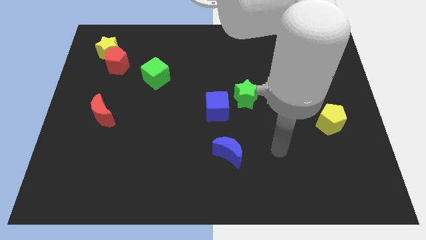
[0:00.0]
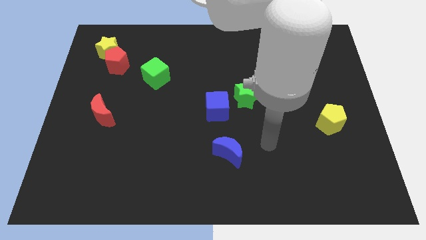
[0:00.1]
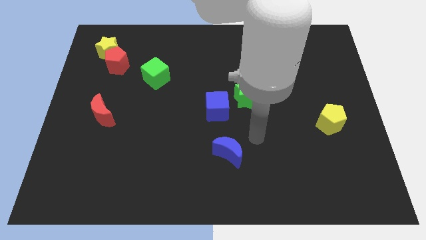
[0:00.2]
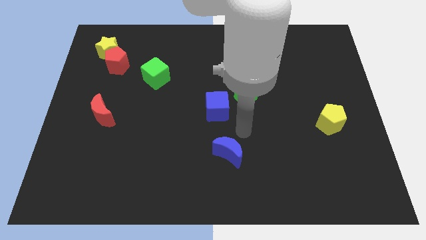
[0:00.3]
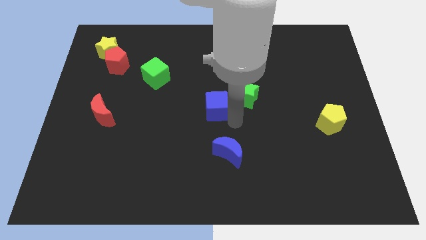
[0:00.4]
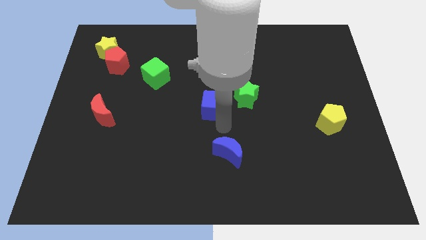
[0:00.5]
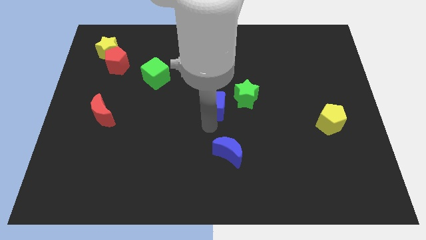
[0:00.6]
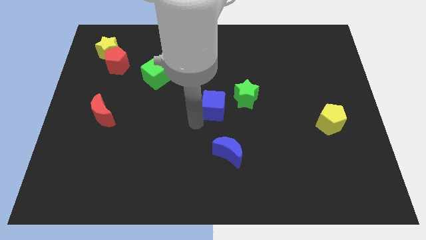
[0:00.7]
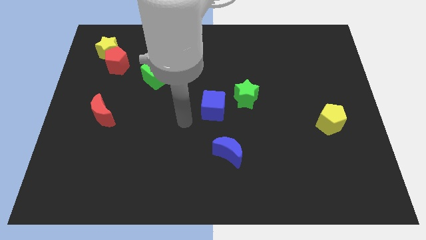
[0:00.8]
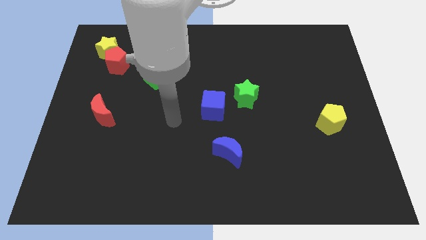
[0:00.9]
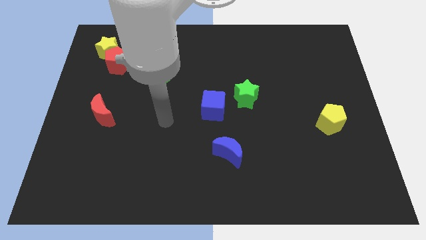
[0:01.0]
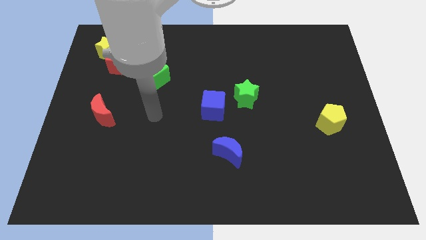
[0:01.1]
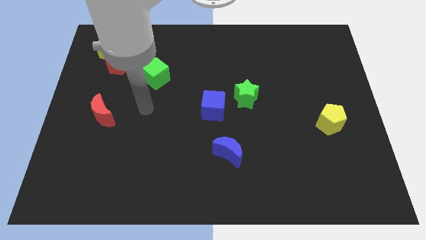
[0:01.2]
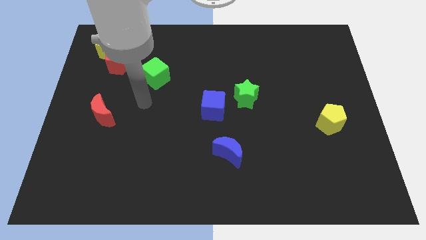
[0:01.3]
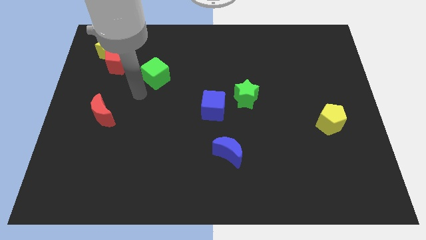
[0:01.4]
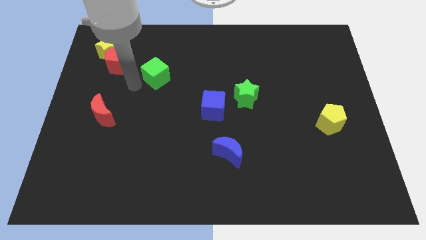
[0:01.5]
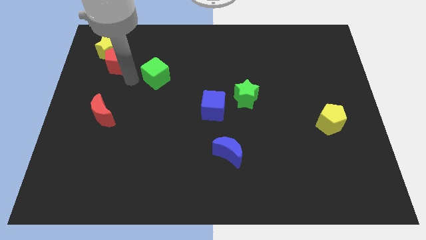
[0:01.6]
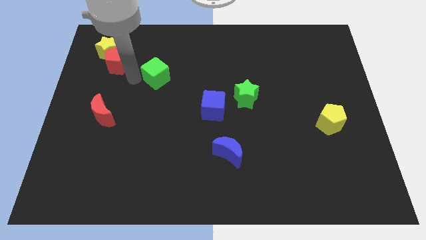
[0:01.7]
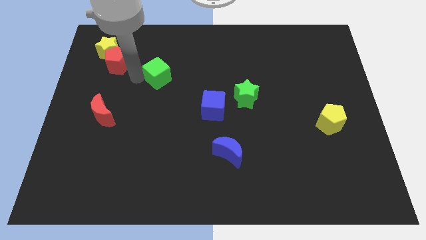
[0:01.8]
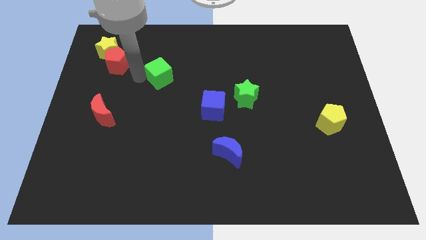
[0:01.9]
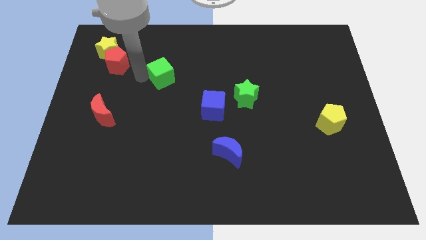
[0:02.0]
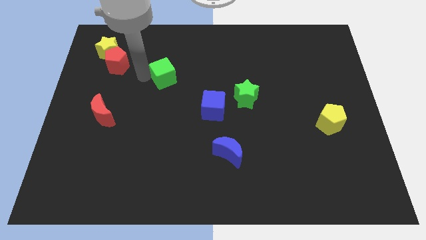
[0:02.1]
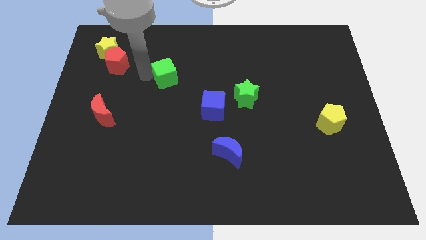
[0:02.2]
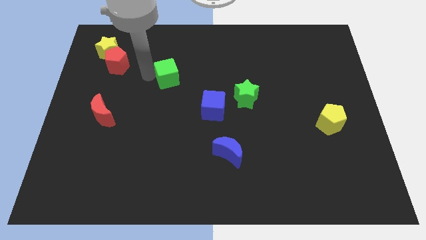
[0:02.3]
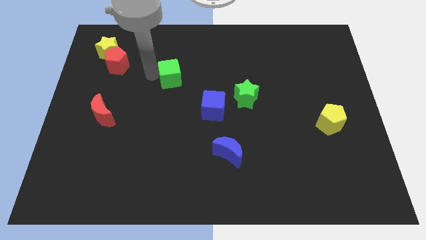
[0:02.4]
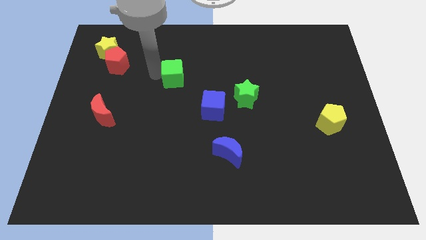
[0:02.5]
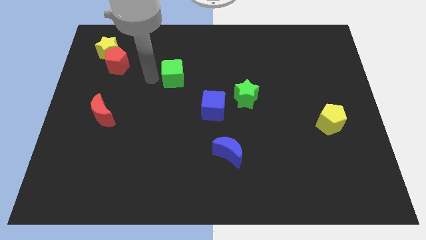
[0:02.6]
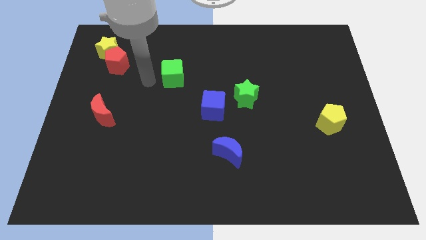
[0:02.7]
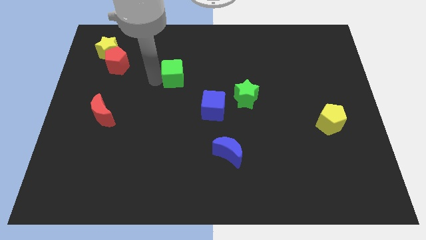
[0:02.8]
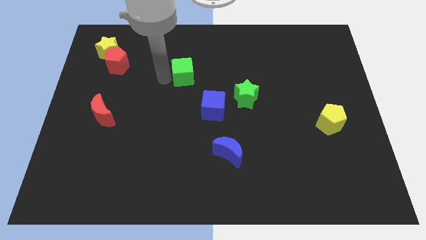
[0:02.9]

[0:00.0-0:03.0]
slide the green cube a bit to the right

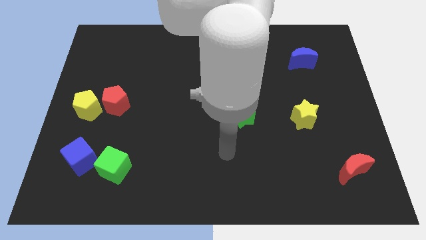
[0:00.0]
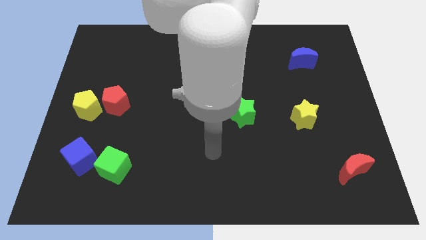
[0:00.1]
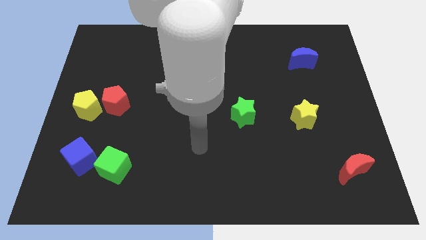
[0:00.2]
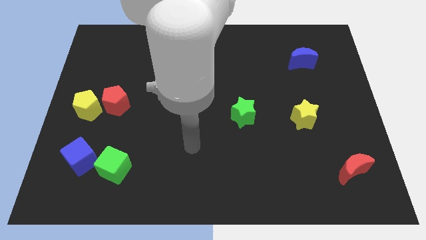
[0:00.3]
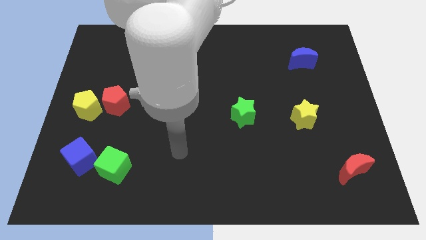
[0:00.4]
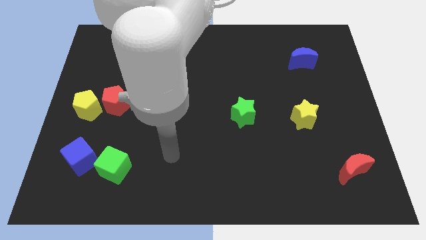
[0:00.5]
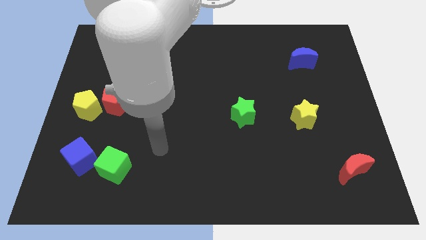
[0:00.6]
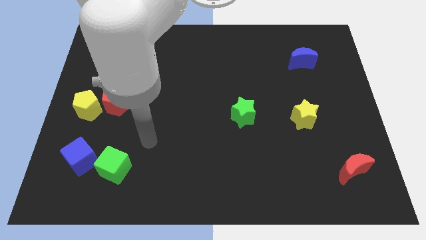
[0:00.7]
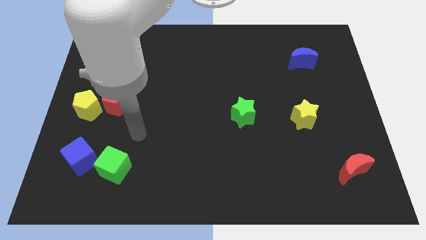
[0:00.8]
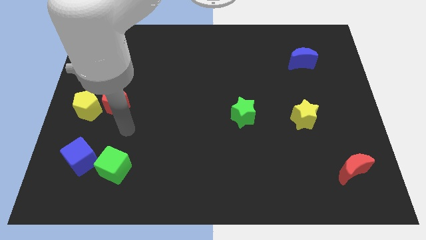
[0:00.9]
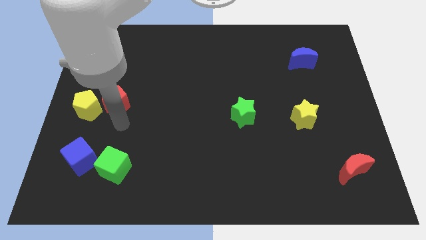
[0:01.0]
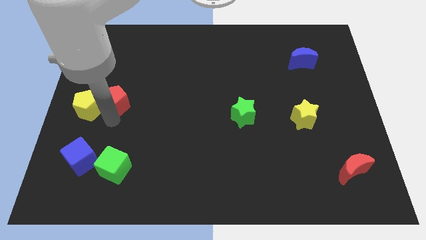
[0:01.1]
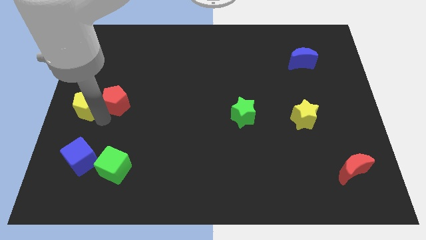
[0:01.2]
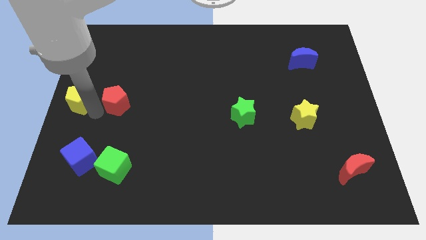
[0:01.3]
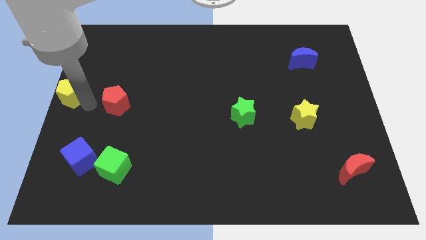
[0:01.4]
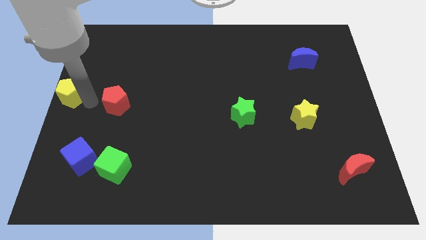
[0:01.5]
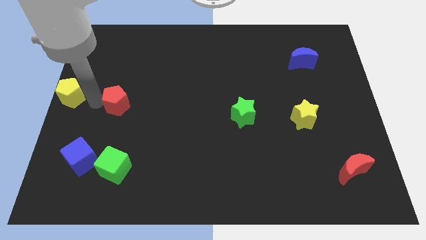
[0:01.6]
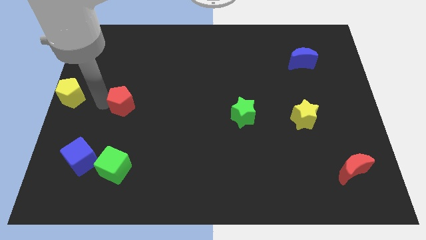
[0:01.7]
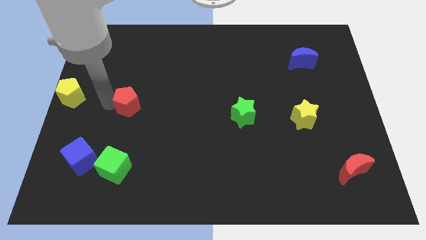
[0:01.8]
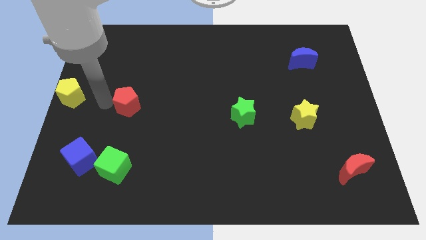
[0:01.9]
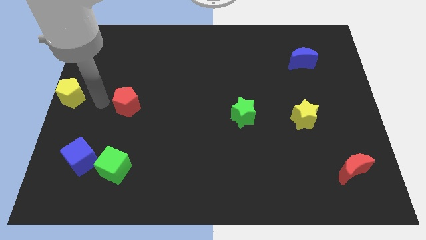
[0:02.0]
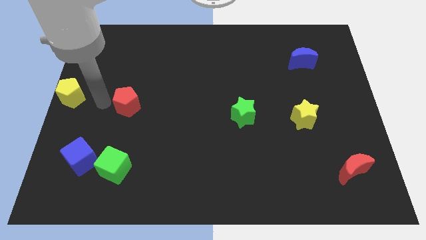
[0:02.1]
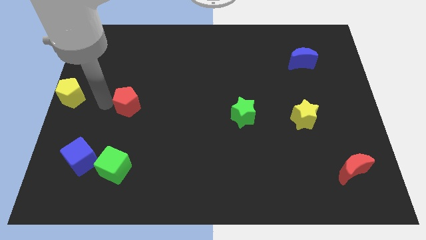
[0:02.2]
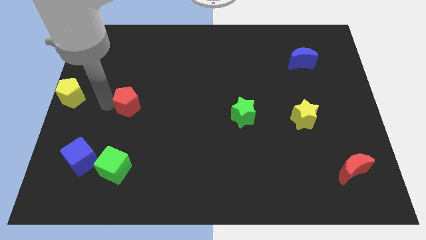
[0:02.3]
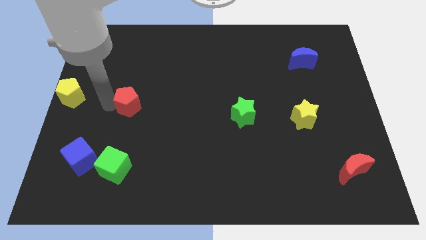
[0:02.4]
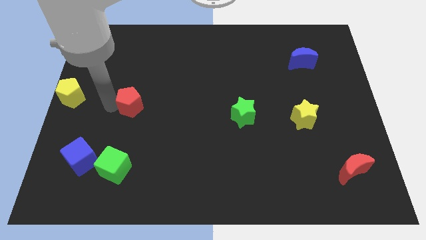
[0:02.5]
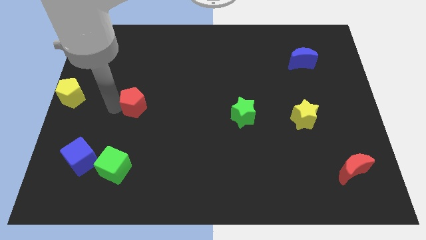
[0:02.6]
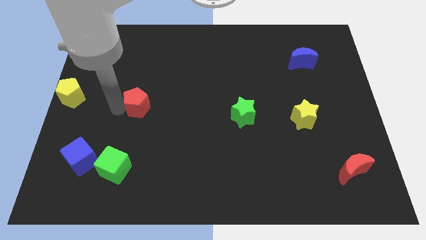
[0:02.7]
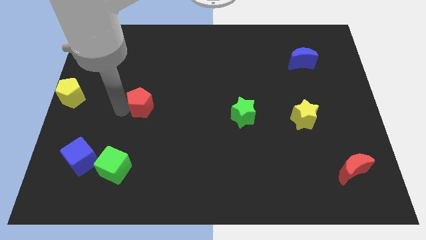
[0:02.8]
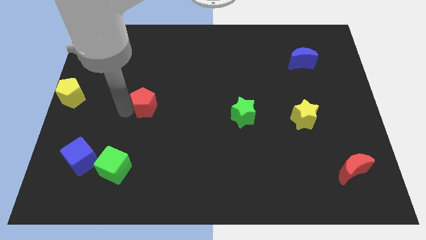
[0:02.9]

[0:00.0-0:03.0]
move the red pentagon a bit to the right

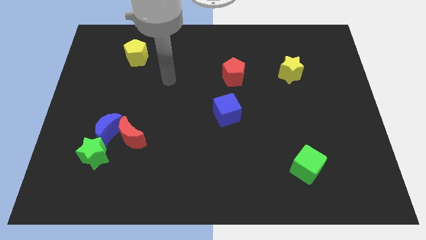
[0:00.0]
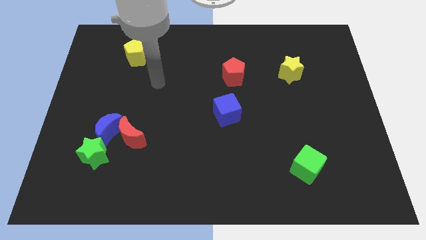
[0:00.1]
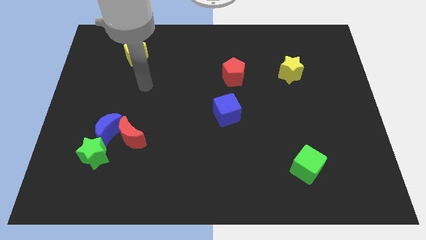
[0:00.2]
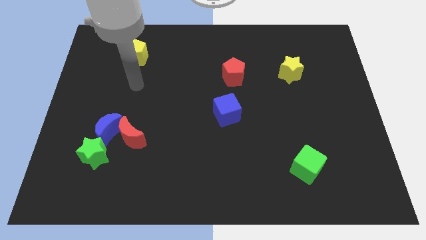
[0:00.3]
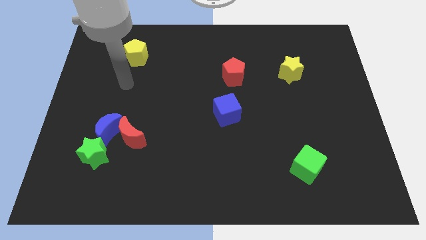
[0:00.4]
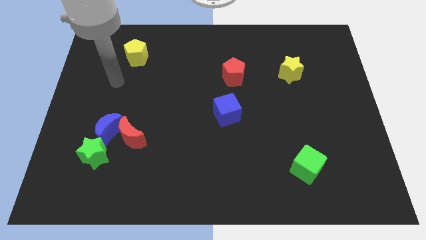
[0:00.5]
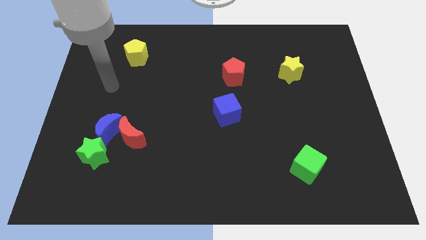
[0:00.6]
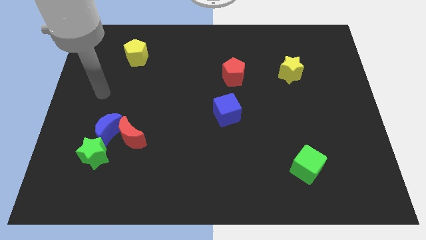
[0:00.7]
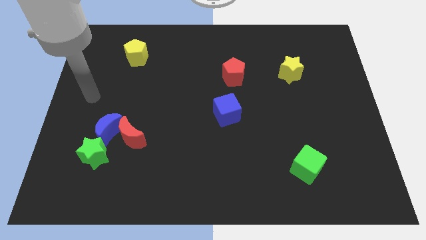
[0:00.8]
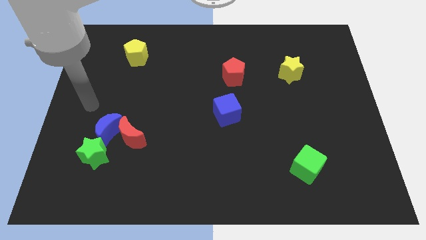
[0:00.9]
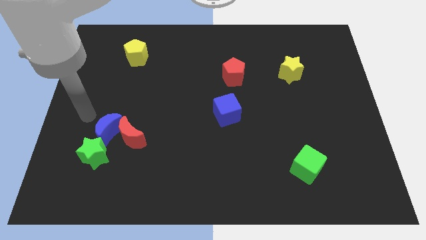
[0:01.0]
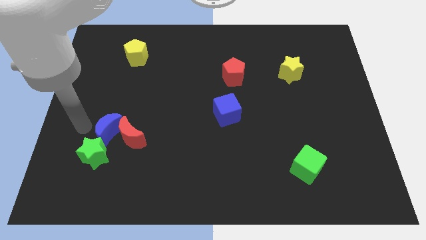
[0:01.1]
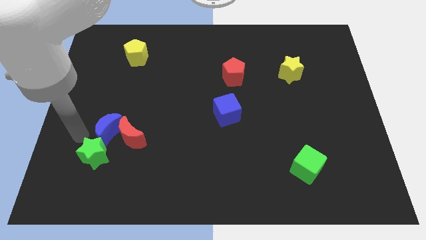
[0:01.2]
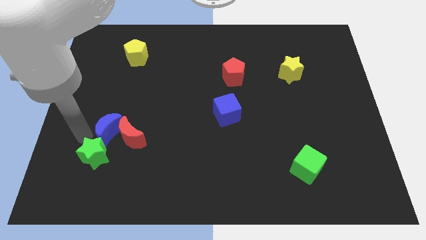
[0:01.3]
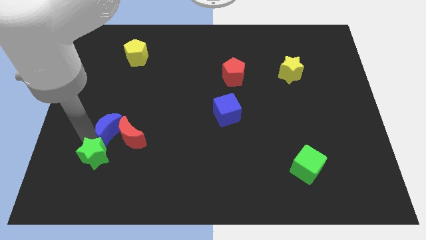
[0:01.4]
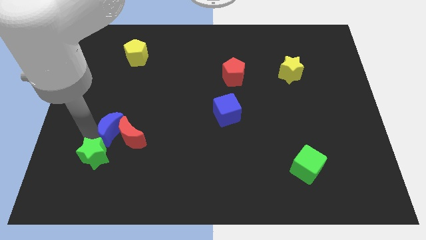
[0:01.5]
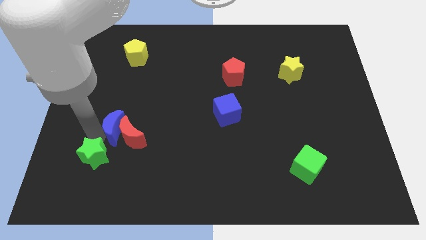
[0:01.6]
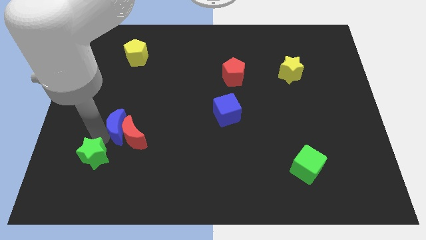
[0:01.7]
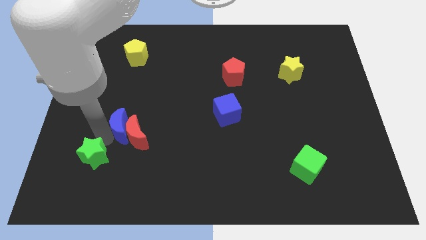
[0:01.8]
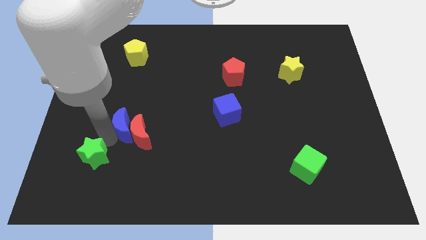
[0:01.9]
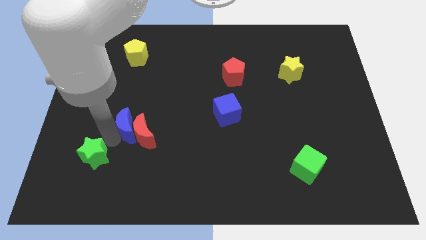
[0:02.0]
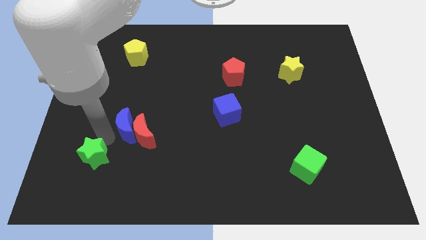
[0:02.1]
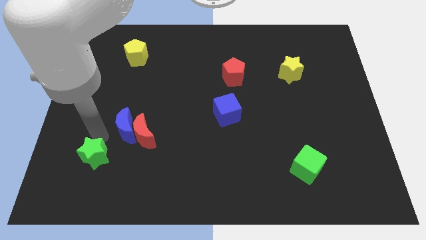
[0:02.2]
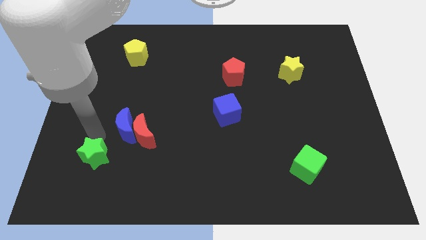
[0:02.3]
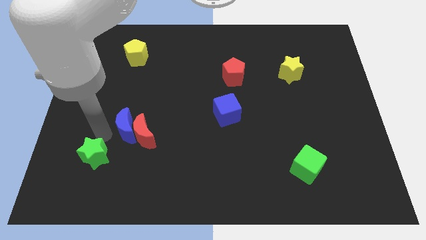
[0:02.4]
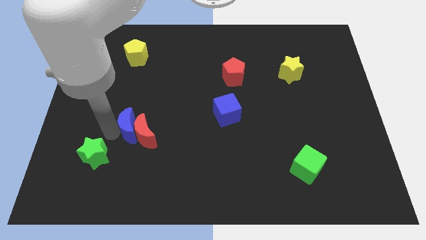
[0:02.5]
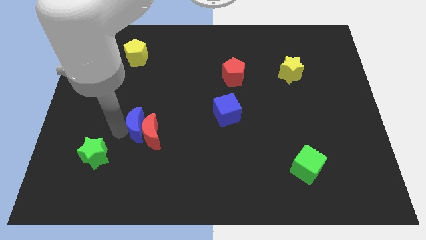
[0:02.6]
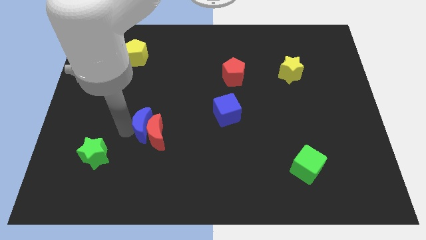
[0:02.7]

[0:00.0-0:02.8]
slide the blue moon somewhat right
